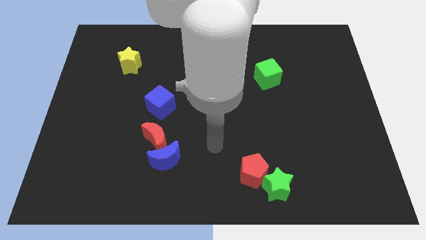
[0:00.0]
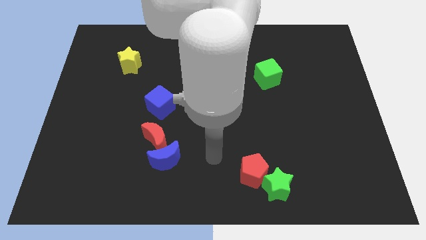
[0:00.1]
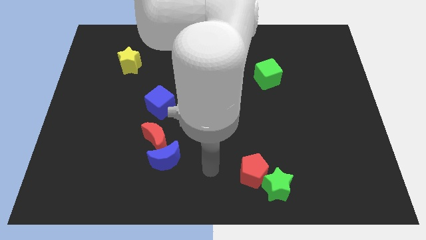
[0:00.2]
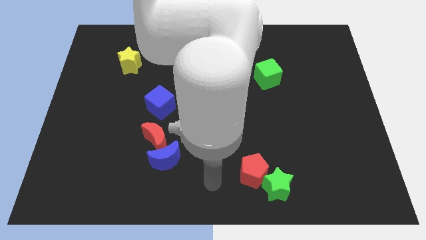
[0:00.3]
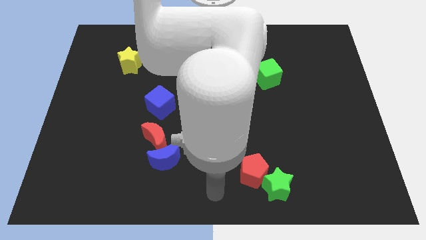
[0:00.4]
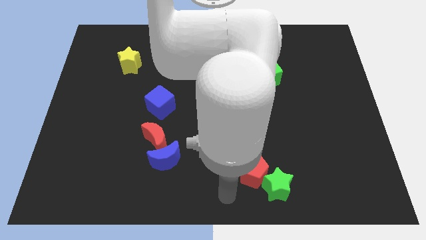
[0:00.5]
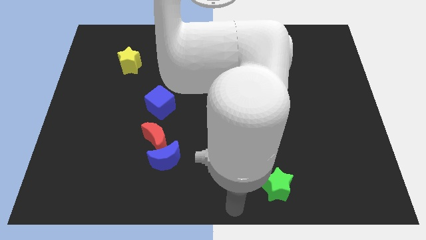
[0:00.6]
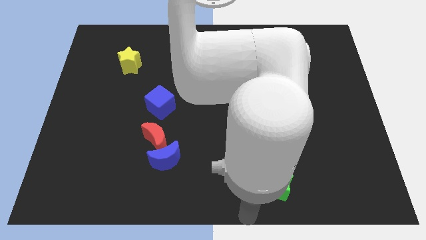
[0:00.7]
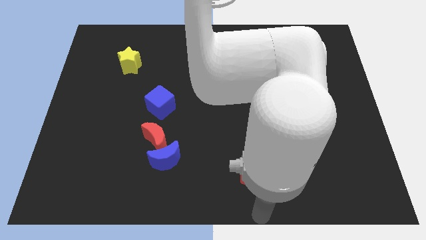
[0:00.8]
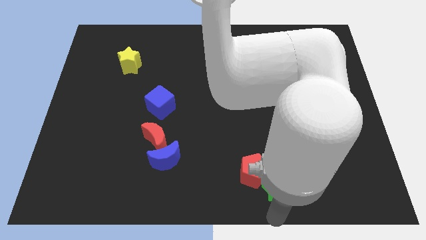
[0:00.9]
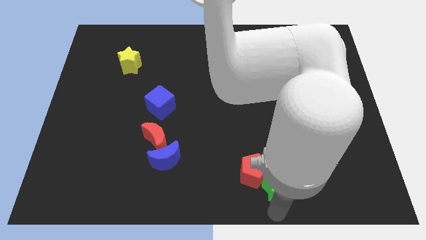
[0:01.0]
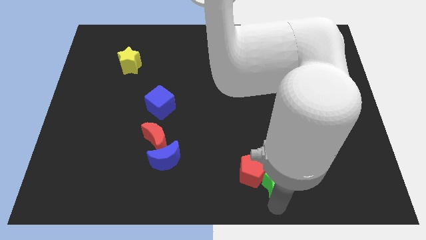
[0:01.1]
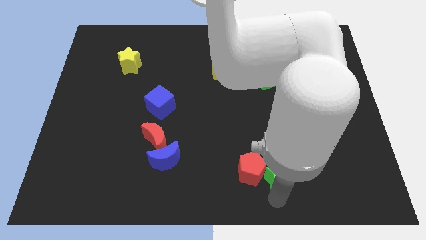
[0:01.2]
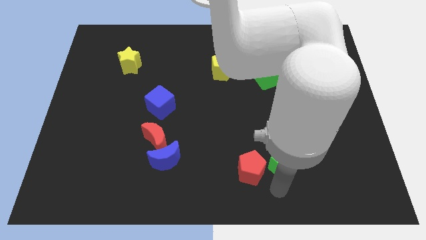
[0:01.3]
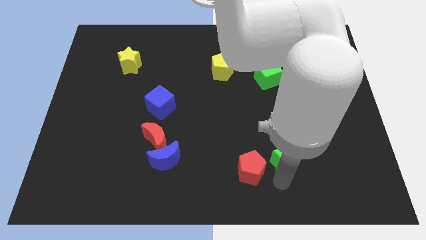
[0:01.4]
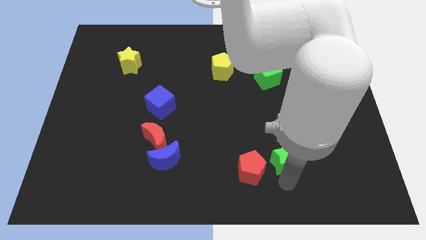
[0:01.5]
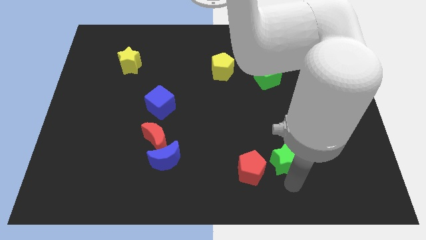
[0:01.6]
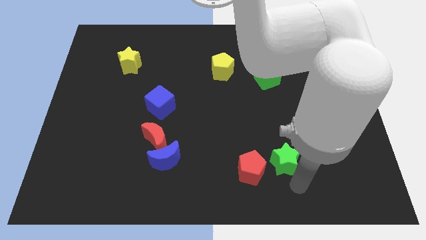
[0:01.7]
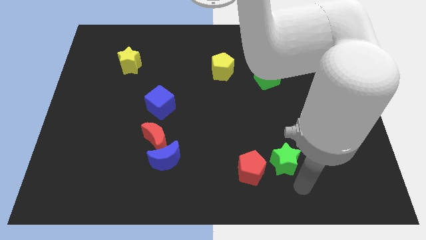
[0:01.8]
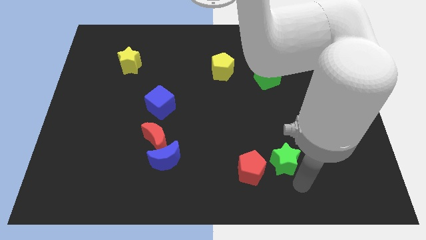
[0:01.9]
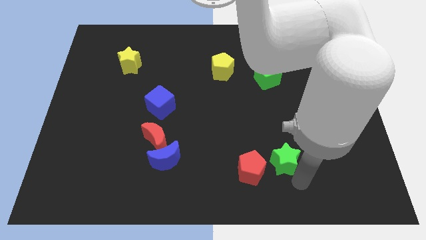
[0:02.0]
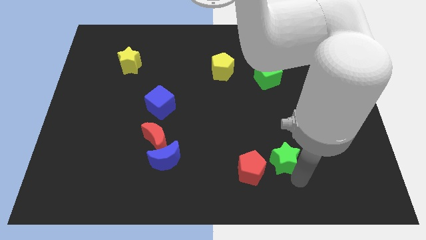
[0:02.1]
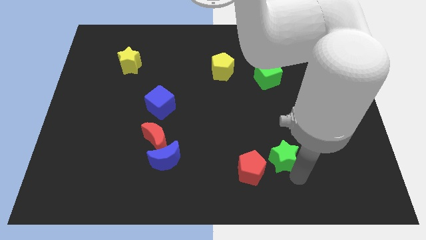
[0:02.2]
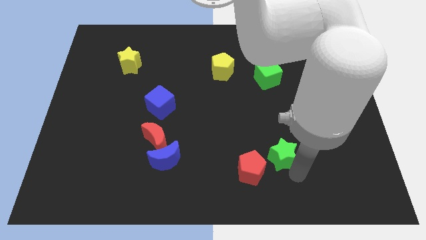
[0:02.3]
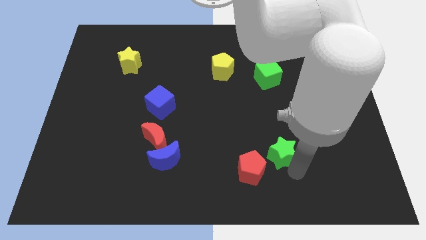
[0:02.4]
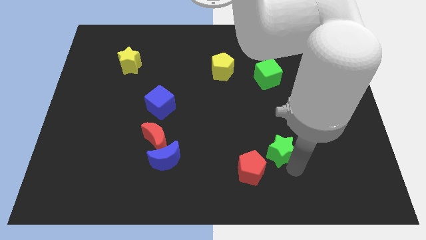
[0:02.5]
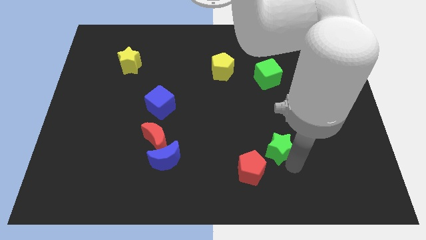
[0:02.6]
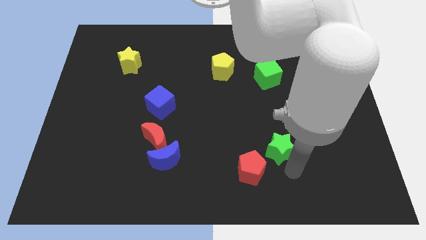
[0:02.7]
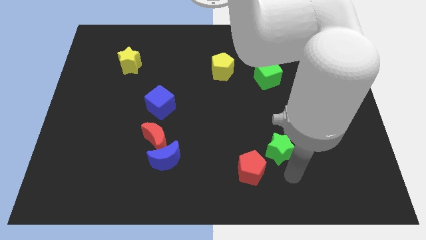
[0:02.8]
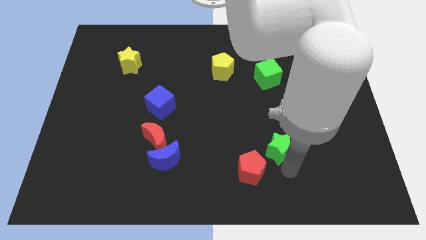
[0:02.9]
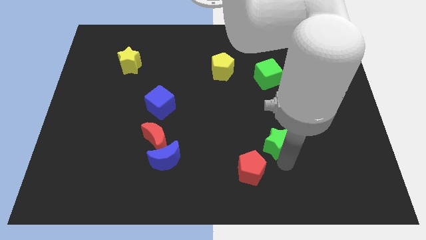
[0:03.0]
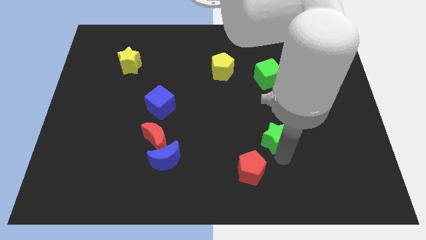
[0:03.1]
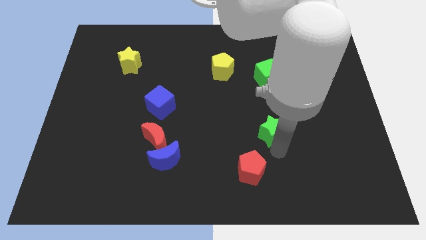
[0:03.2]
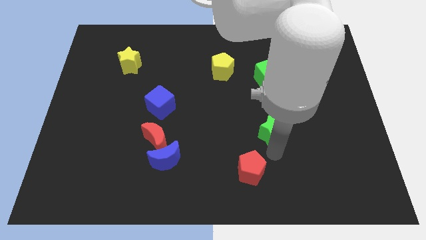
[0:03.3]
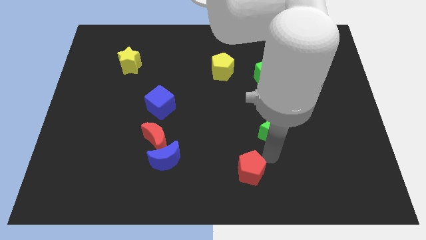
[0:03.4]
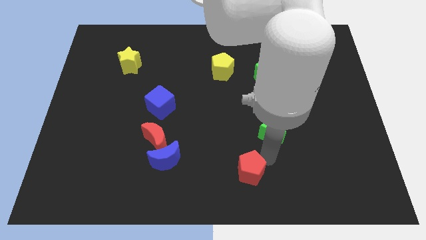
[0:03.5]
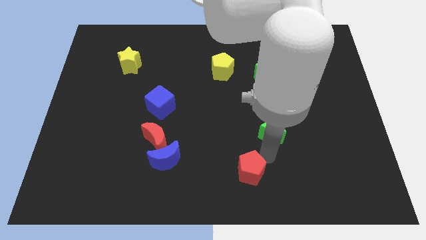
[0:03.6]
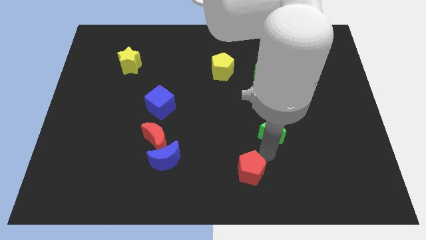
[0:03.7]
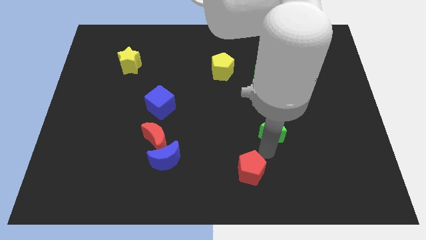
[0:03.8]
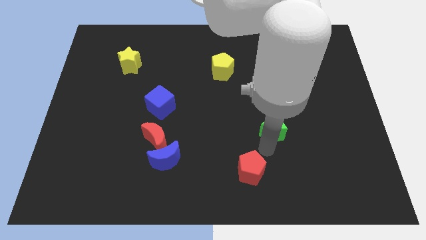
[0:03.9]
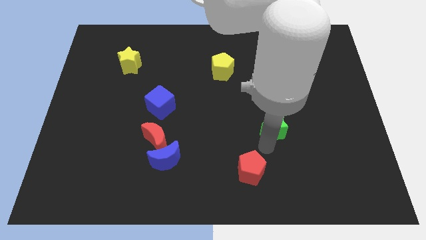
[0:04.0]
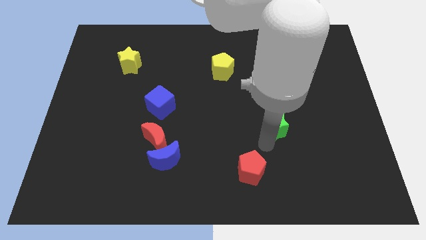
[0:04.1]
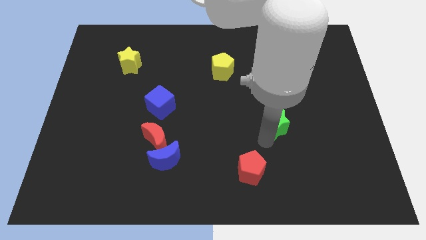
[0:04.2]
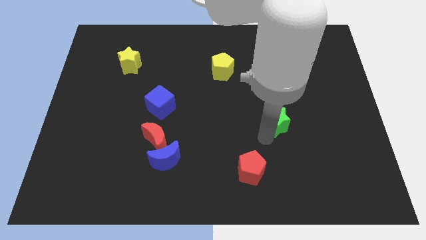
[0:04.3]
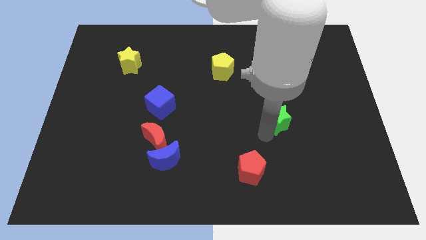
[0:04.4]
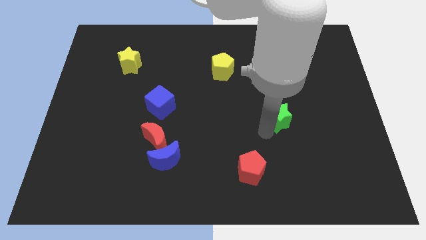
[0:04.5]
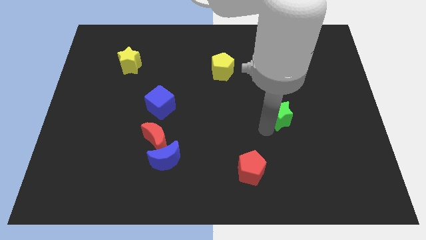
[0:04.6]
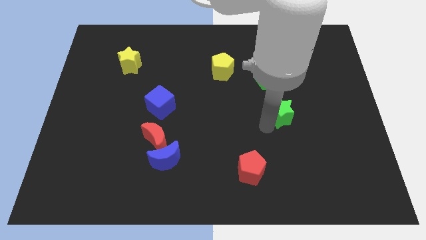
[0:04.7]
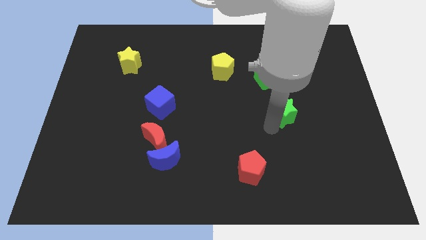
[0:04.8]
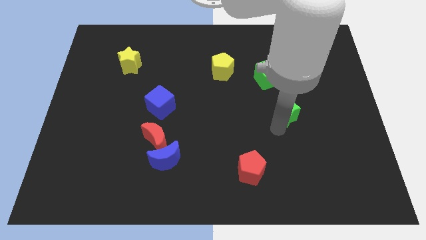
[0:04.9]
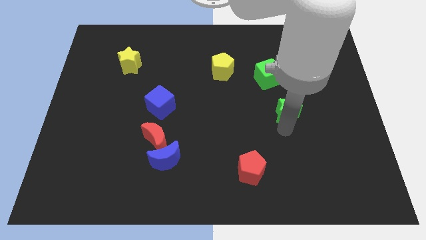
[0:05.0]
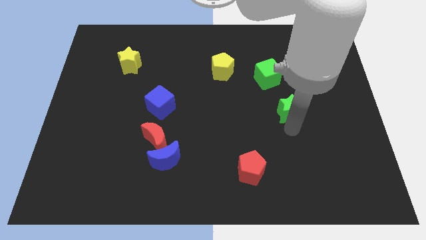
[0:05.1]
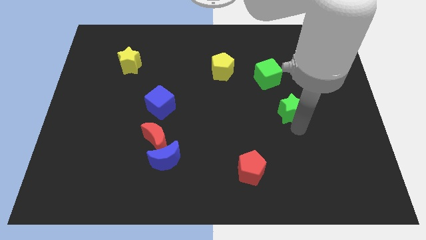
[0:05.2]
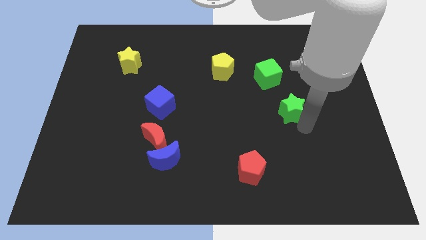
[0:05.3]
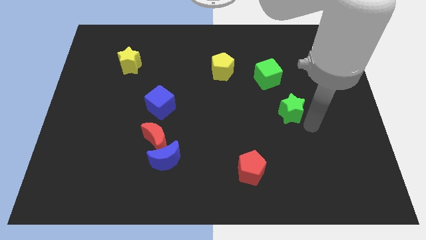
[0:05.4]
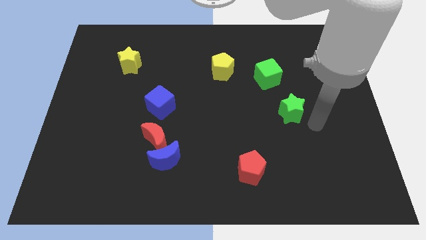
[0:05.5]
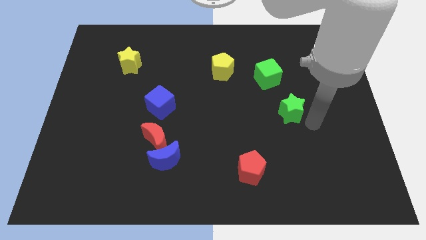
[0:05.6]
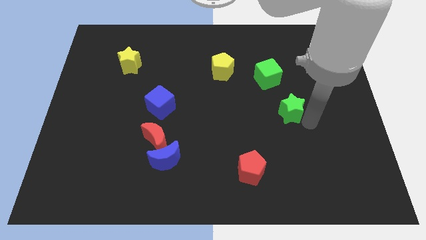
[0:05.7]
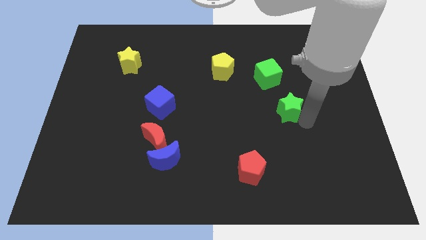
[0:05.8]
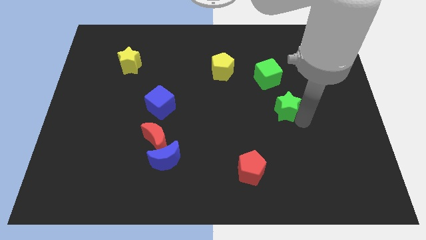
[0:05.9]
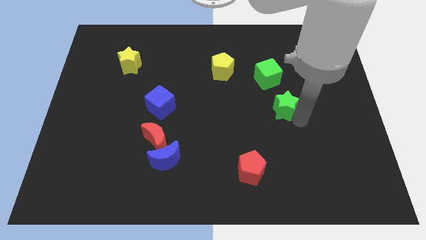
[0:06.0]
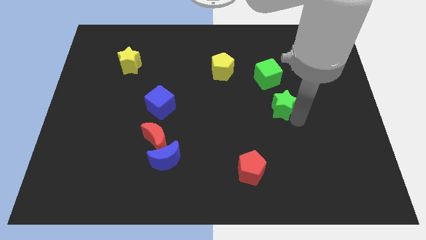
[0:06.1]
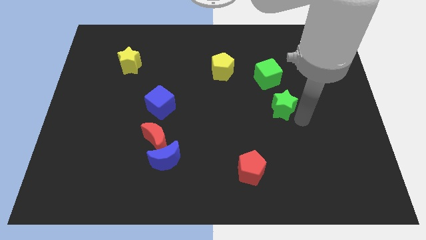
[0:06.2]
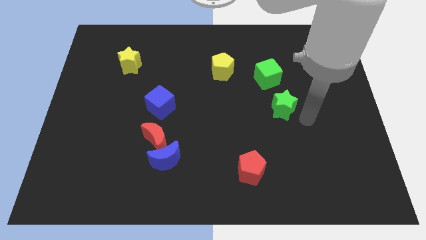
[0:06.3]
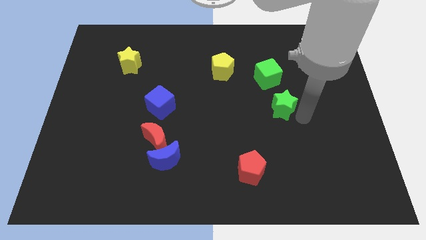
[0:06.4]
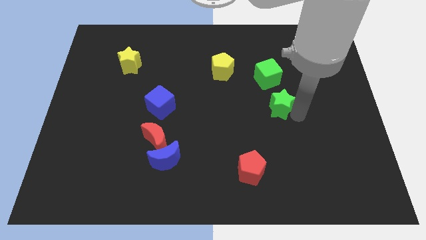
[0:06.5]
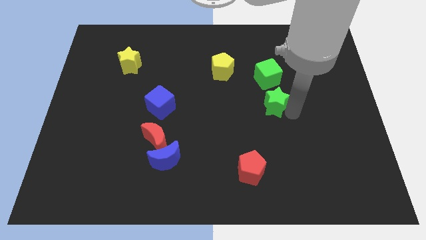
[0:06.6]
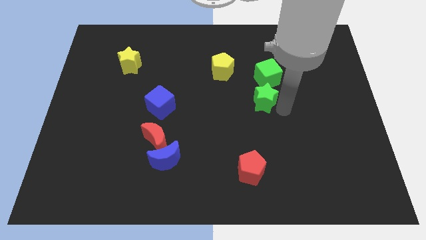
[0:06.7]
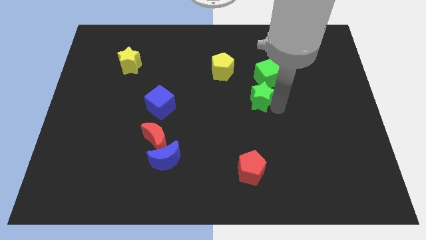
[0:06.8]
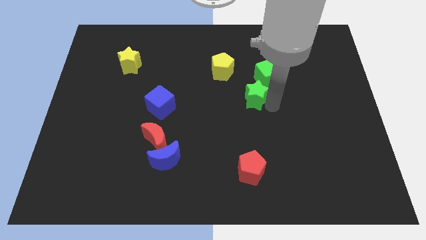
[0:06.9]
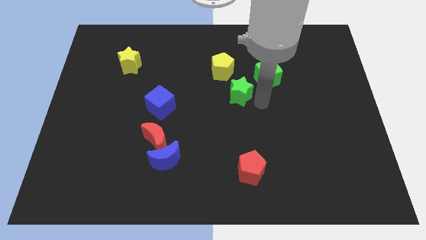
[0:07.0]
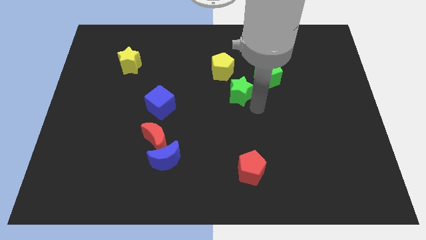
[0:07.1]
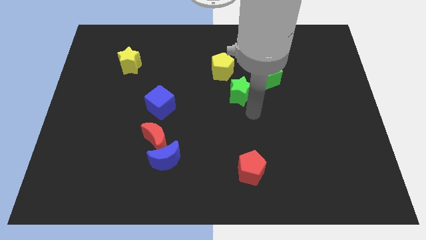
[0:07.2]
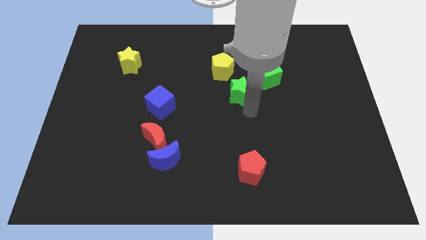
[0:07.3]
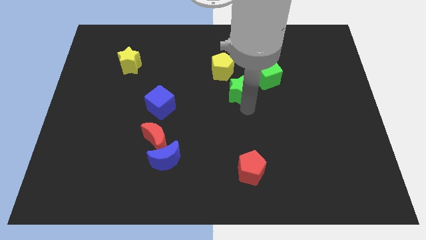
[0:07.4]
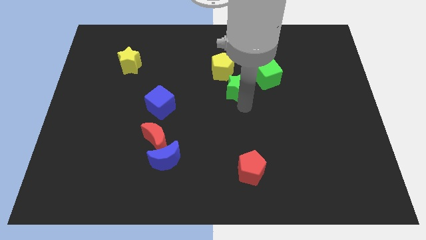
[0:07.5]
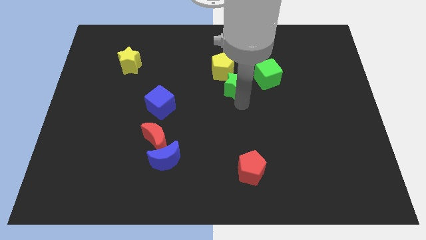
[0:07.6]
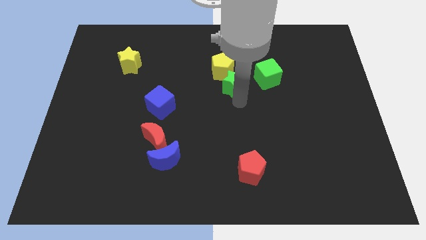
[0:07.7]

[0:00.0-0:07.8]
slide the green star next to the yellow pentagon
